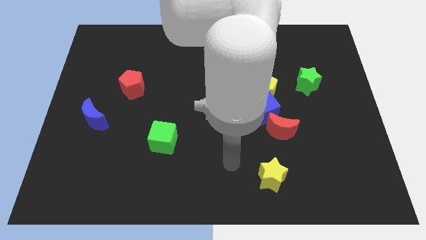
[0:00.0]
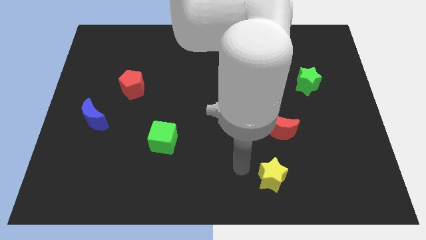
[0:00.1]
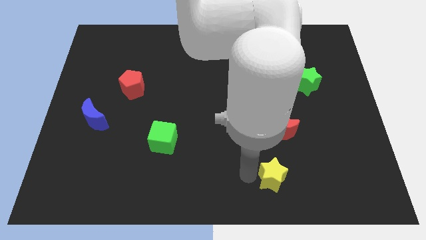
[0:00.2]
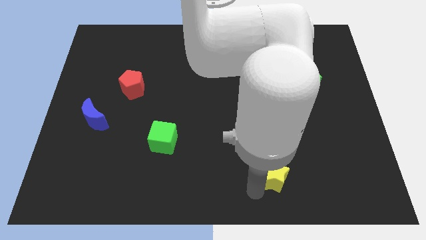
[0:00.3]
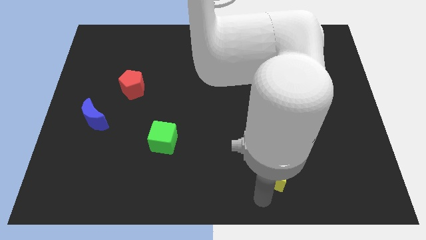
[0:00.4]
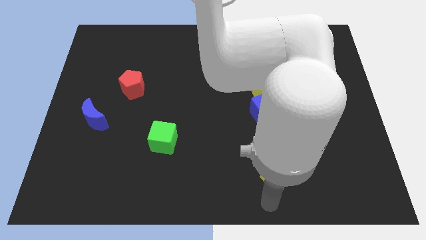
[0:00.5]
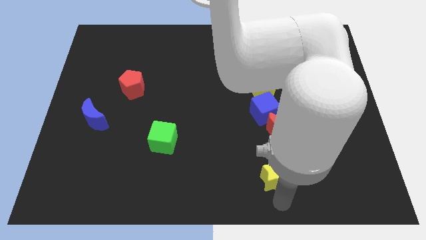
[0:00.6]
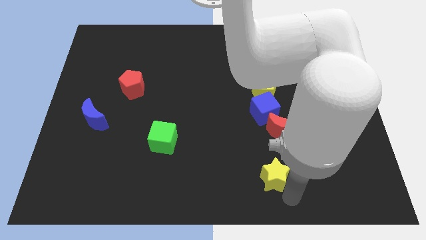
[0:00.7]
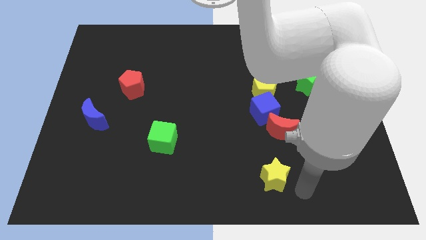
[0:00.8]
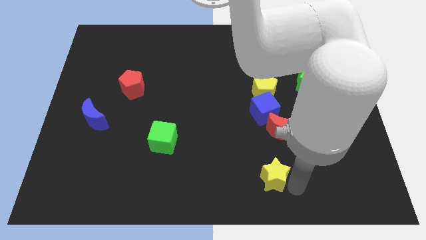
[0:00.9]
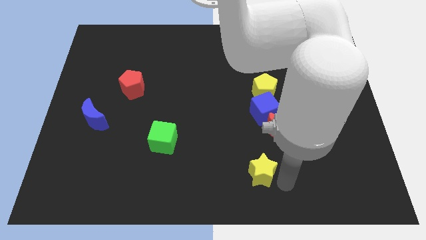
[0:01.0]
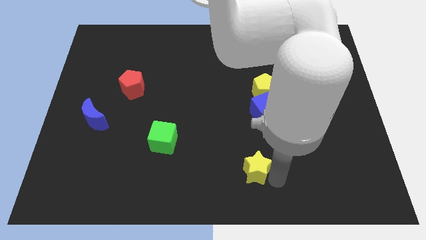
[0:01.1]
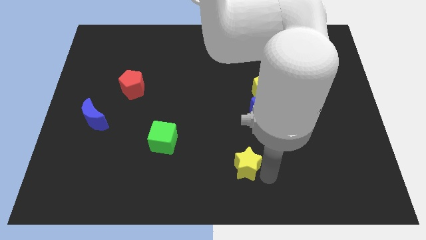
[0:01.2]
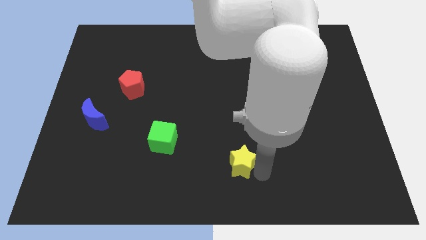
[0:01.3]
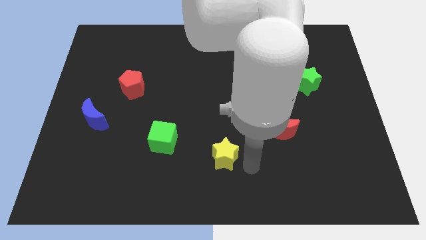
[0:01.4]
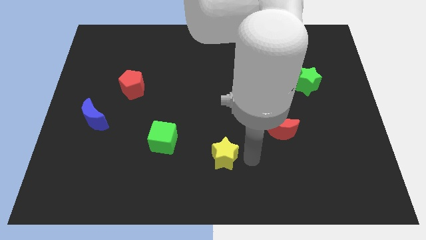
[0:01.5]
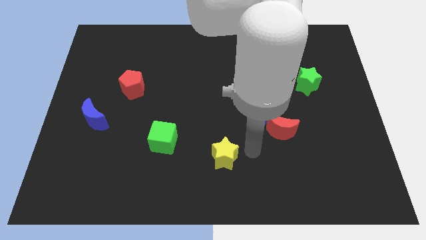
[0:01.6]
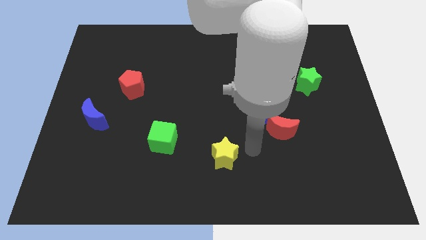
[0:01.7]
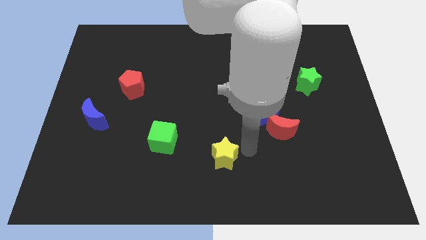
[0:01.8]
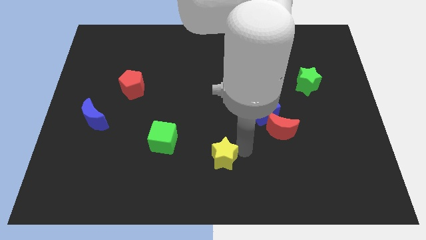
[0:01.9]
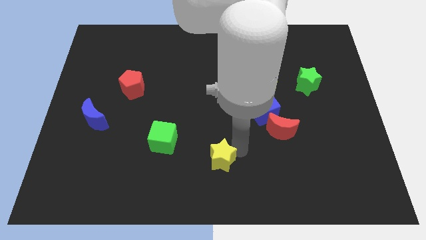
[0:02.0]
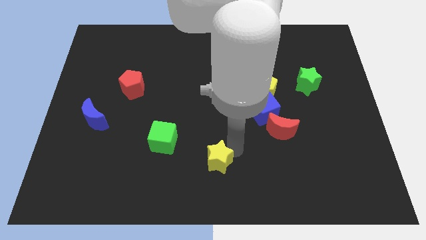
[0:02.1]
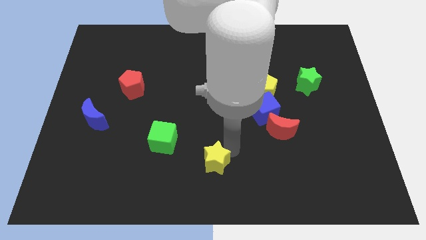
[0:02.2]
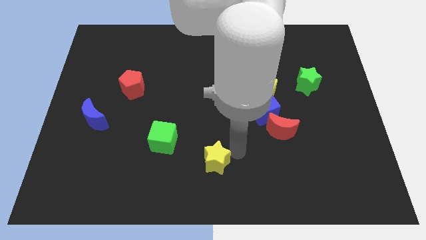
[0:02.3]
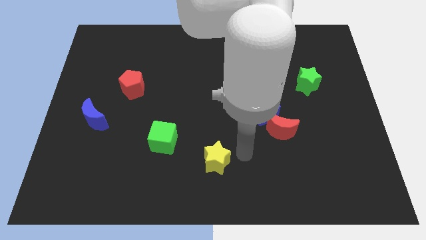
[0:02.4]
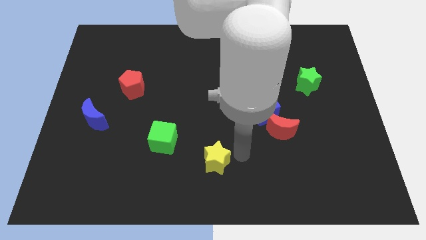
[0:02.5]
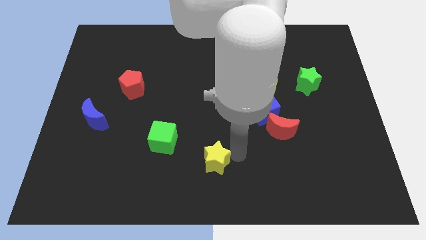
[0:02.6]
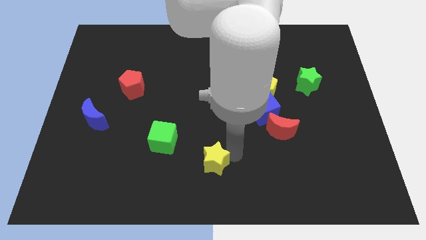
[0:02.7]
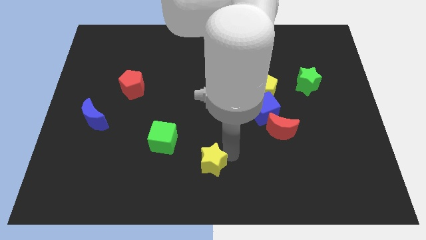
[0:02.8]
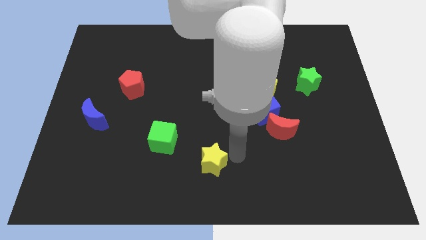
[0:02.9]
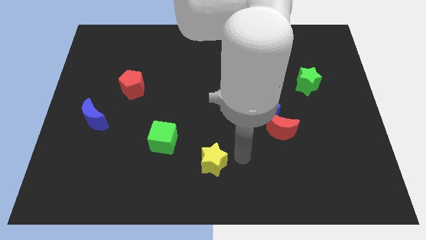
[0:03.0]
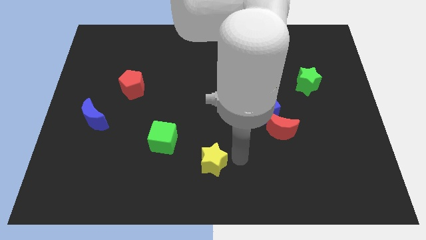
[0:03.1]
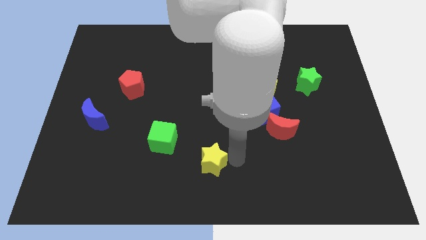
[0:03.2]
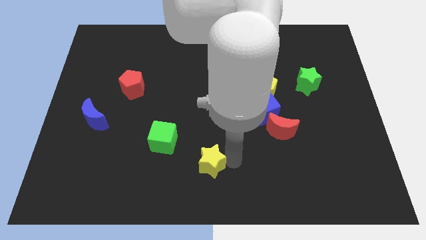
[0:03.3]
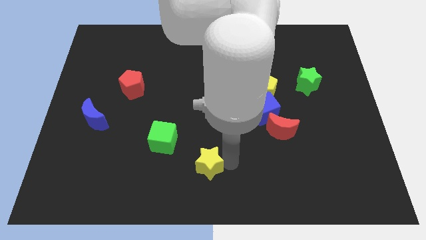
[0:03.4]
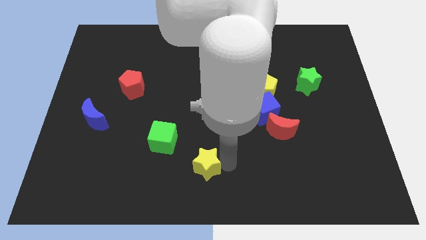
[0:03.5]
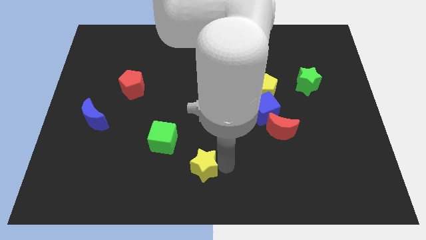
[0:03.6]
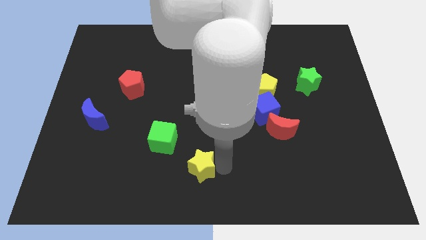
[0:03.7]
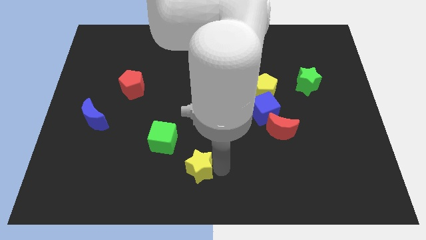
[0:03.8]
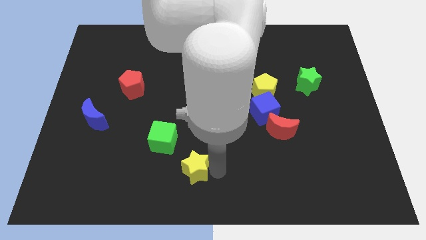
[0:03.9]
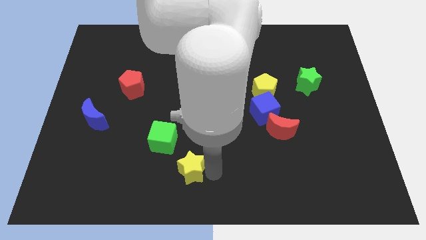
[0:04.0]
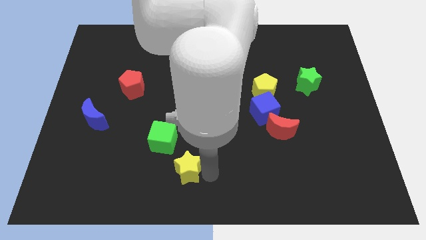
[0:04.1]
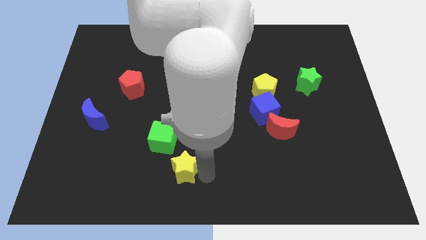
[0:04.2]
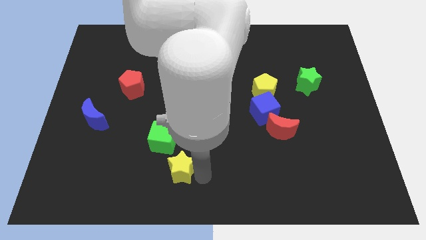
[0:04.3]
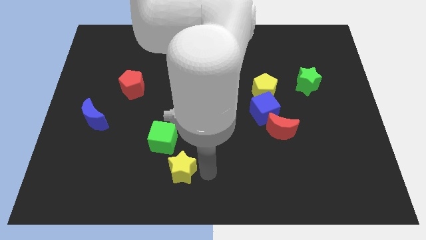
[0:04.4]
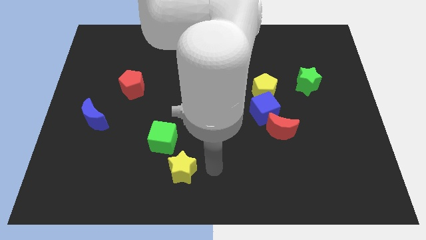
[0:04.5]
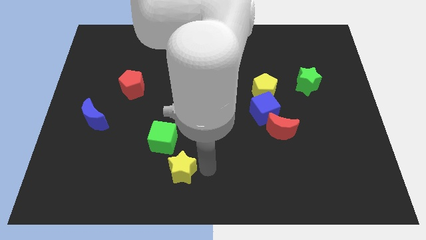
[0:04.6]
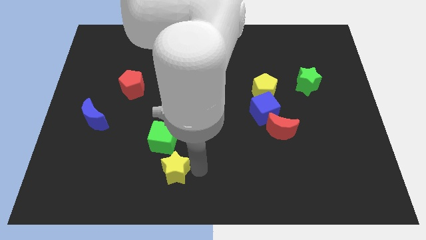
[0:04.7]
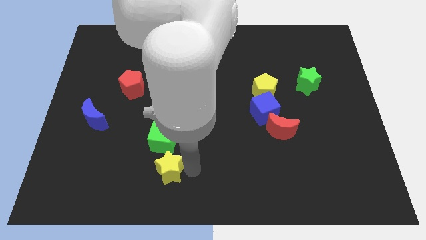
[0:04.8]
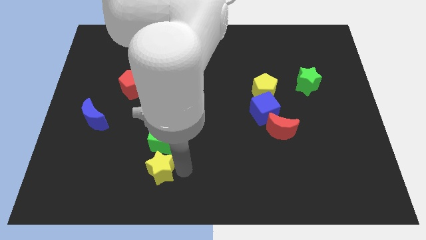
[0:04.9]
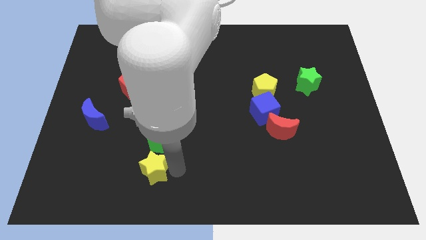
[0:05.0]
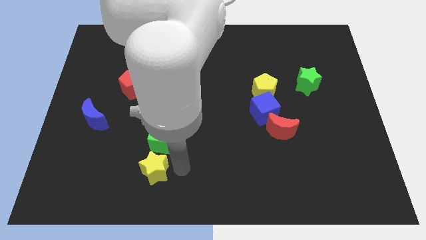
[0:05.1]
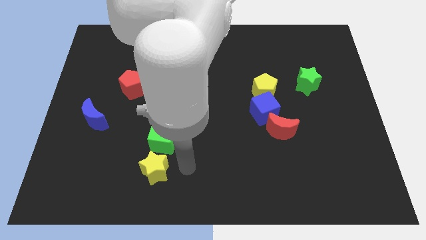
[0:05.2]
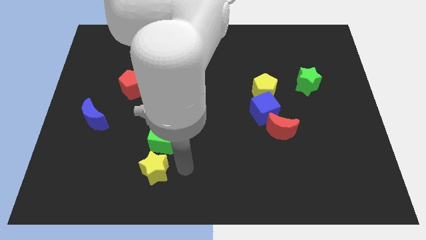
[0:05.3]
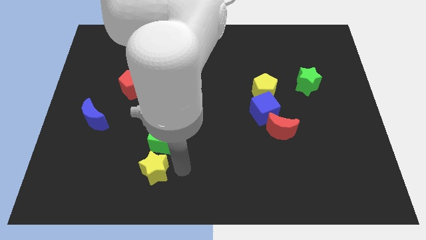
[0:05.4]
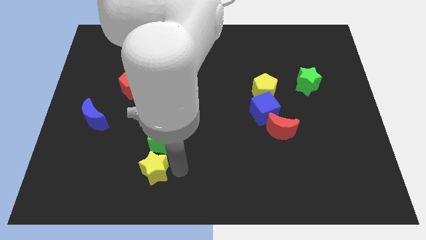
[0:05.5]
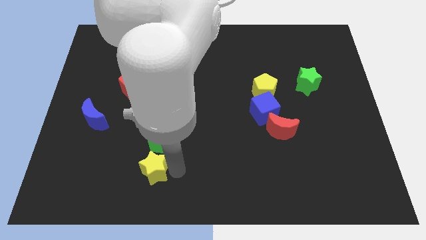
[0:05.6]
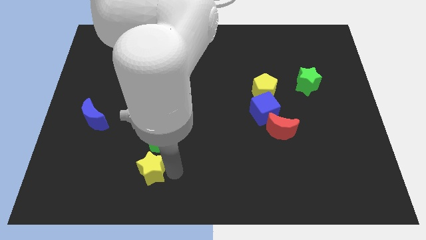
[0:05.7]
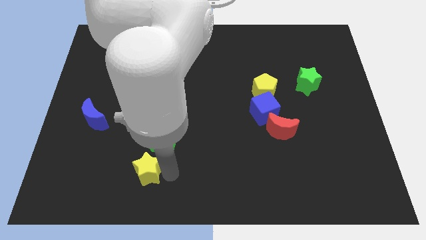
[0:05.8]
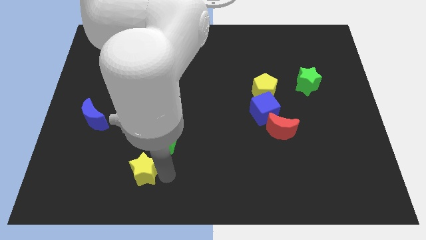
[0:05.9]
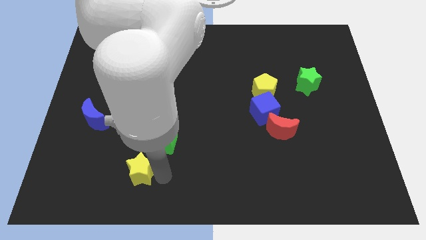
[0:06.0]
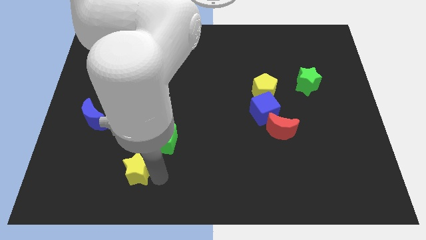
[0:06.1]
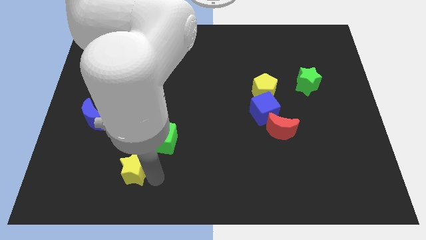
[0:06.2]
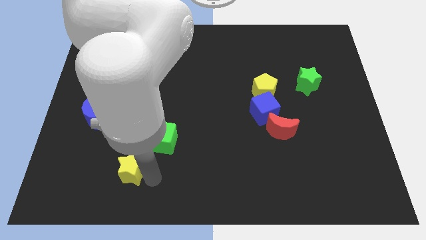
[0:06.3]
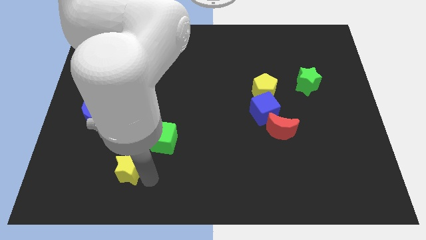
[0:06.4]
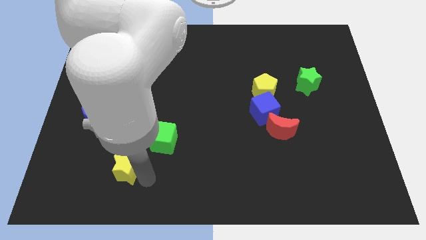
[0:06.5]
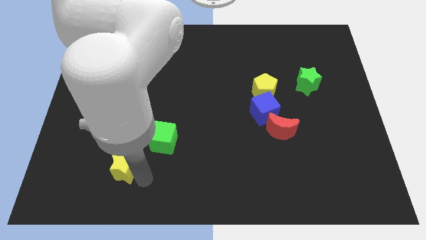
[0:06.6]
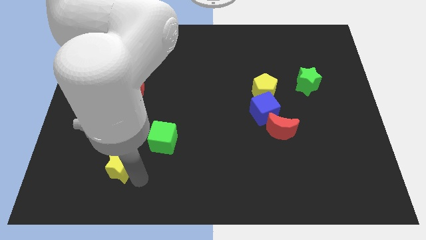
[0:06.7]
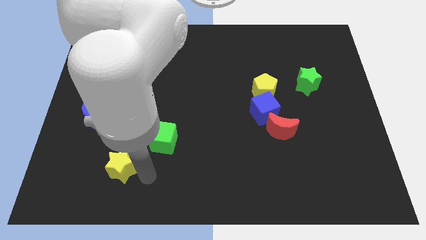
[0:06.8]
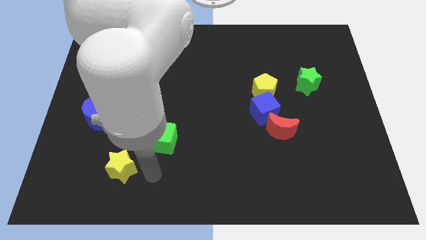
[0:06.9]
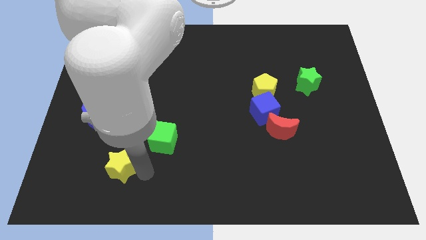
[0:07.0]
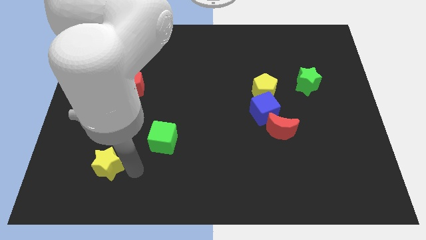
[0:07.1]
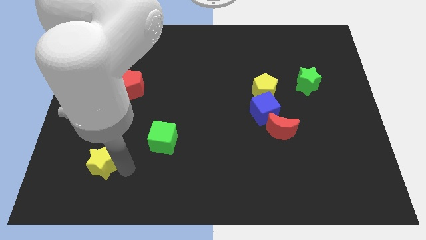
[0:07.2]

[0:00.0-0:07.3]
push the yellow star below the blue moon
